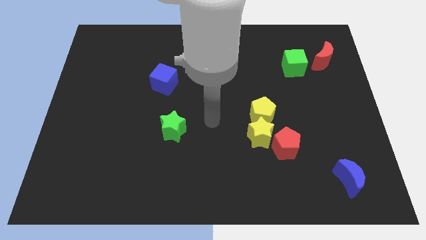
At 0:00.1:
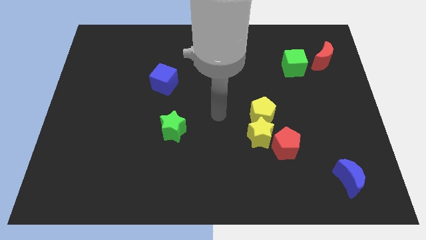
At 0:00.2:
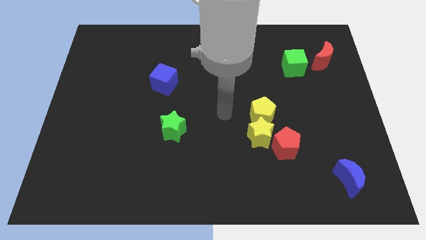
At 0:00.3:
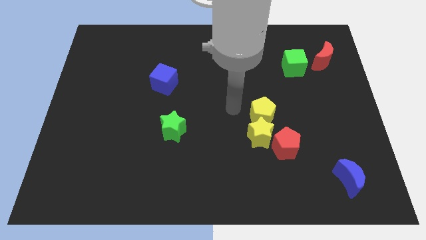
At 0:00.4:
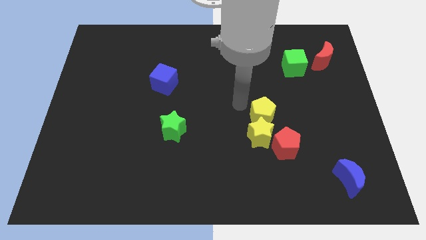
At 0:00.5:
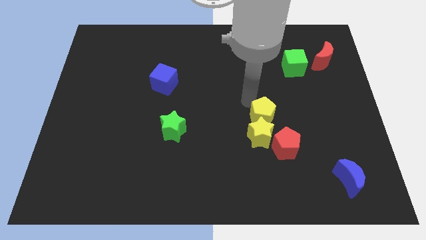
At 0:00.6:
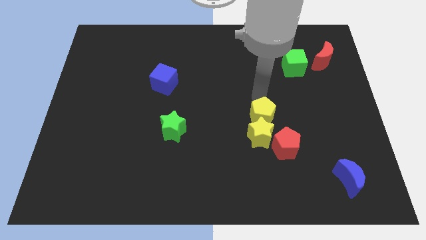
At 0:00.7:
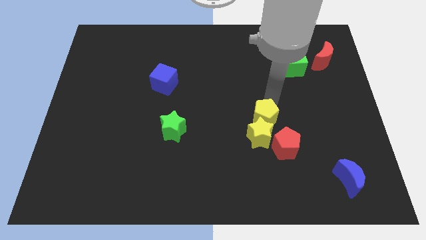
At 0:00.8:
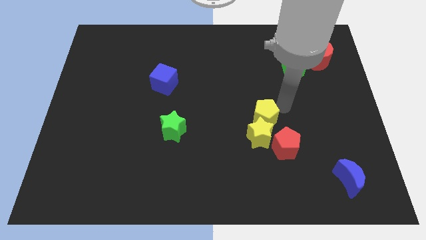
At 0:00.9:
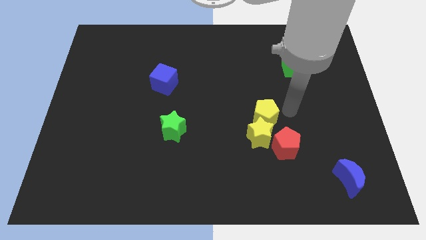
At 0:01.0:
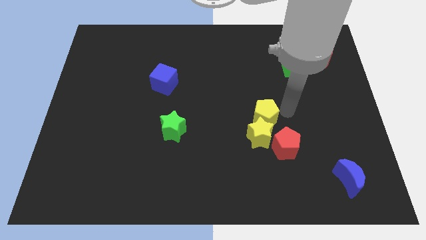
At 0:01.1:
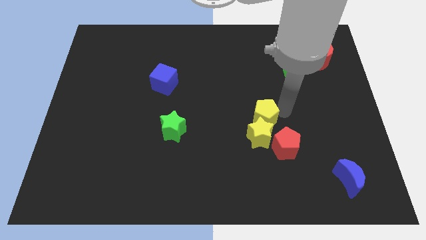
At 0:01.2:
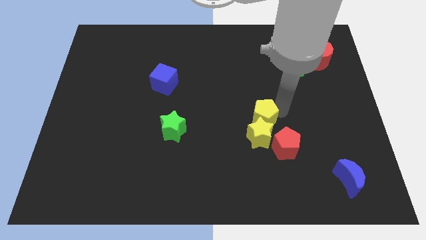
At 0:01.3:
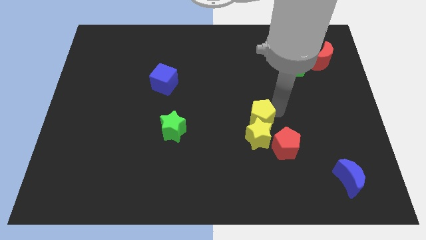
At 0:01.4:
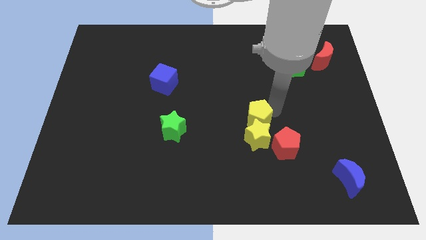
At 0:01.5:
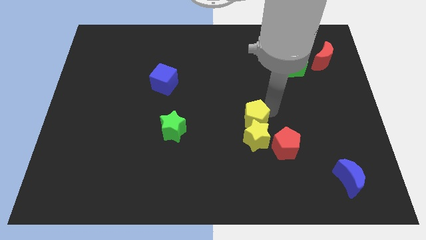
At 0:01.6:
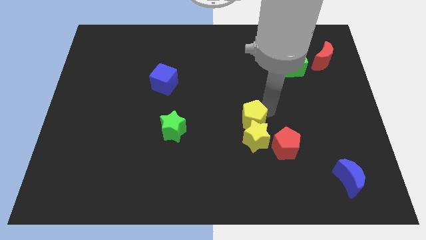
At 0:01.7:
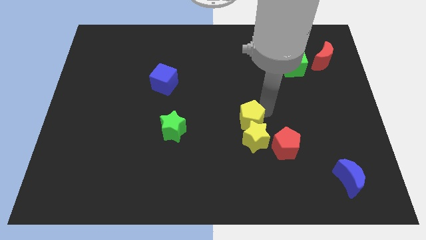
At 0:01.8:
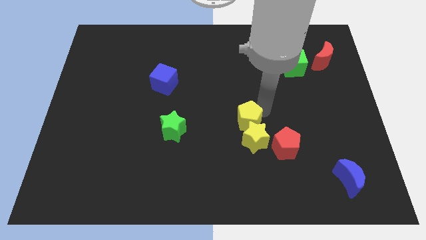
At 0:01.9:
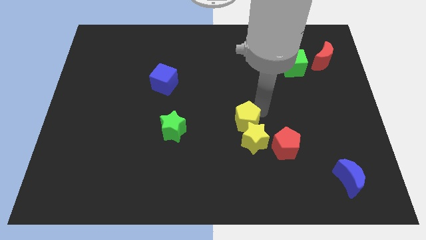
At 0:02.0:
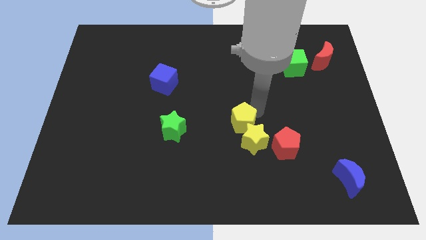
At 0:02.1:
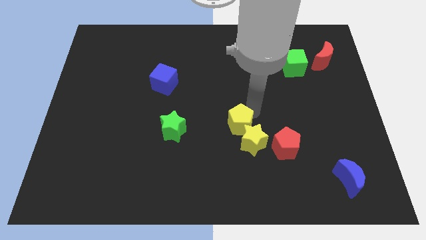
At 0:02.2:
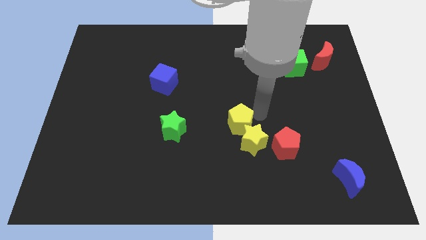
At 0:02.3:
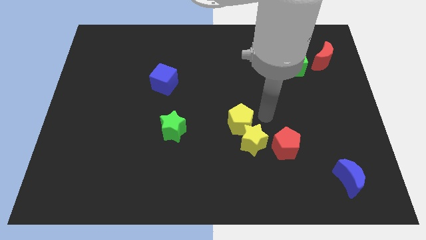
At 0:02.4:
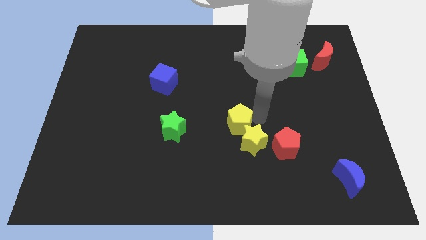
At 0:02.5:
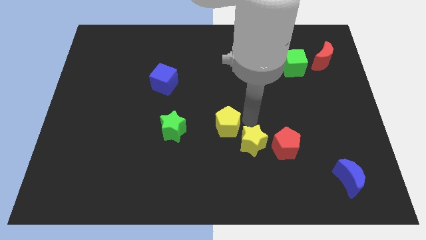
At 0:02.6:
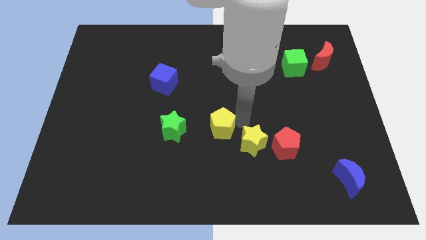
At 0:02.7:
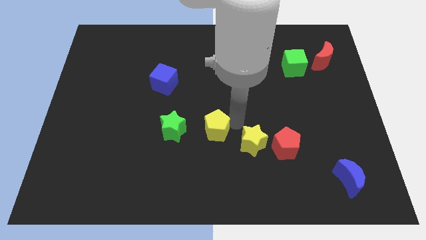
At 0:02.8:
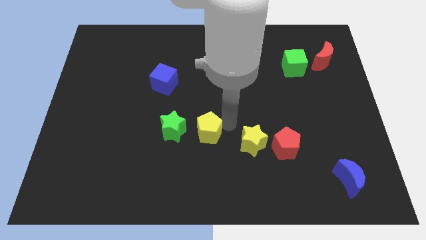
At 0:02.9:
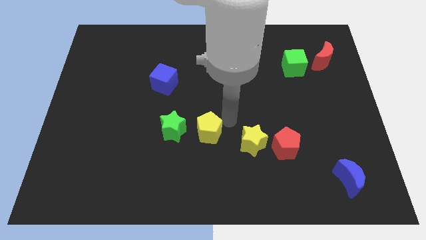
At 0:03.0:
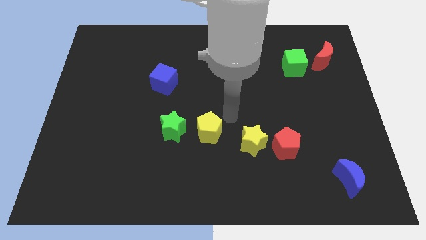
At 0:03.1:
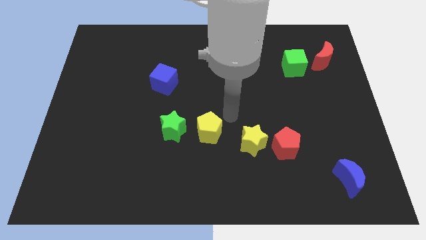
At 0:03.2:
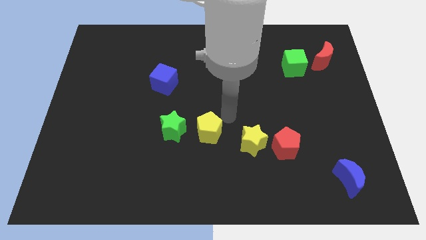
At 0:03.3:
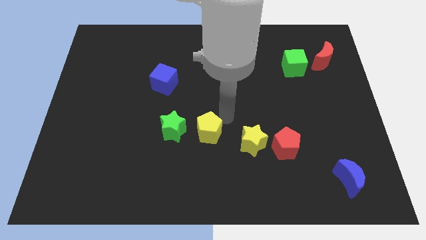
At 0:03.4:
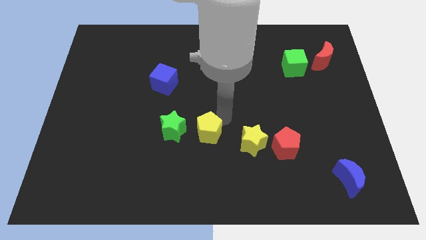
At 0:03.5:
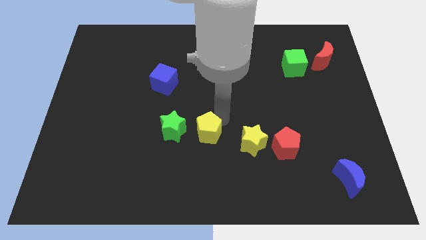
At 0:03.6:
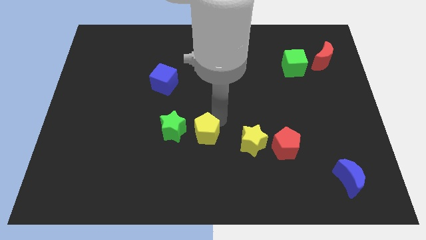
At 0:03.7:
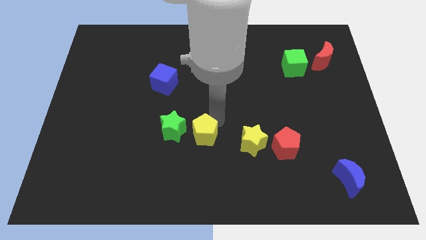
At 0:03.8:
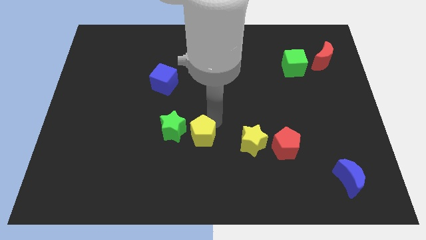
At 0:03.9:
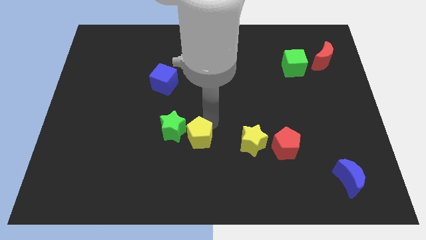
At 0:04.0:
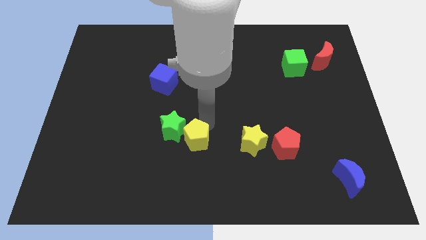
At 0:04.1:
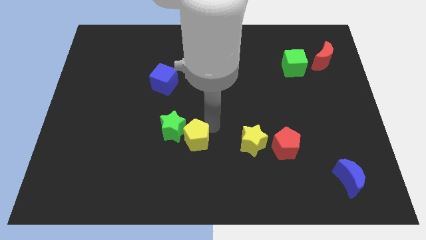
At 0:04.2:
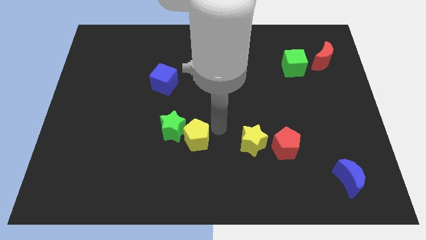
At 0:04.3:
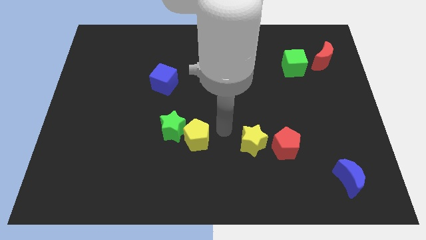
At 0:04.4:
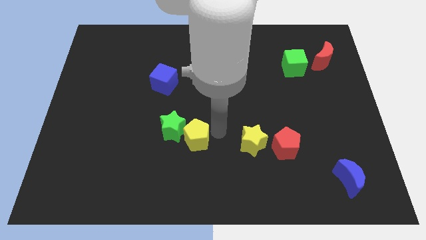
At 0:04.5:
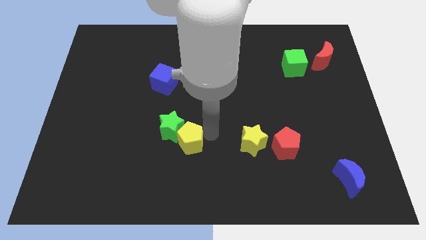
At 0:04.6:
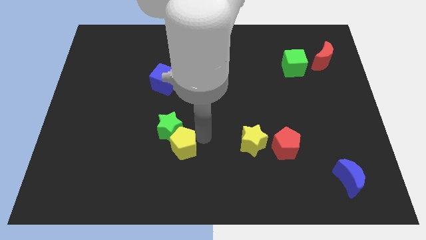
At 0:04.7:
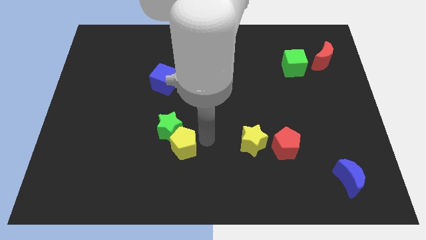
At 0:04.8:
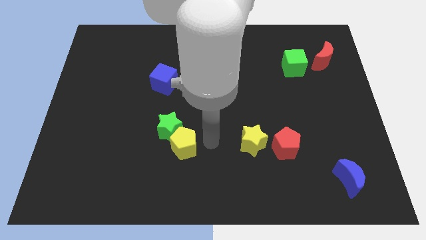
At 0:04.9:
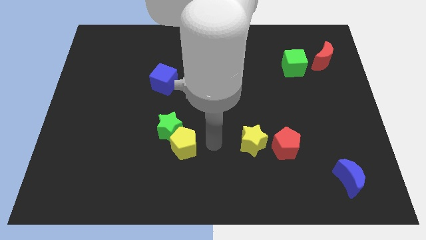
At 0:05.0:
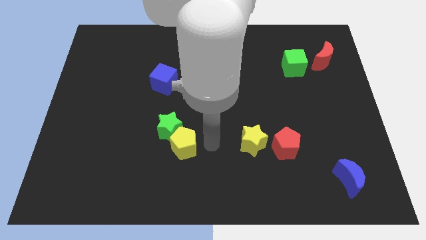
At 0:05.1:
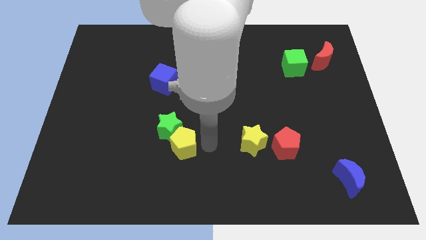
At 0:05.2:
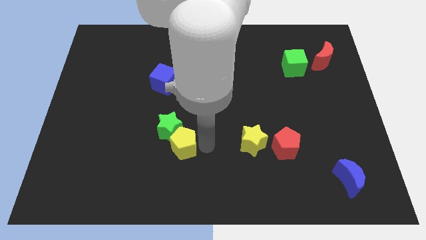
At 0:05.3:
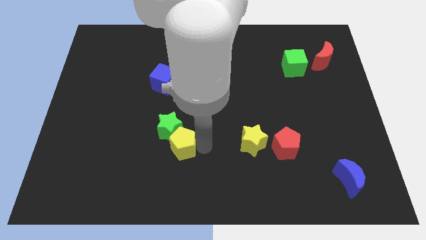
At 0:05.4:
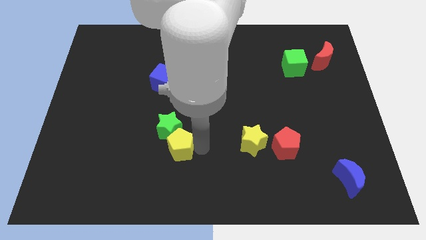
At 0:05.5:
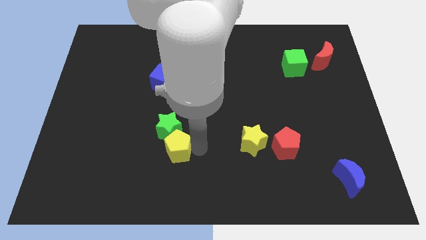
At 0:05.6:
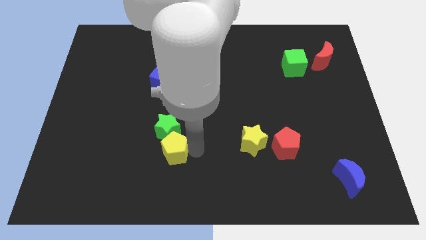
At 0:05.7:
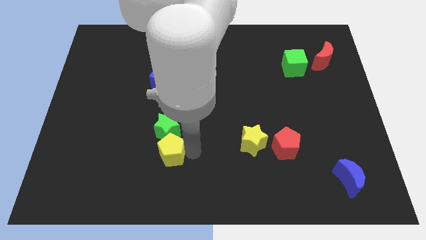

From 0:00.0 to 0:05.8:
put the yellow pentagon to the bottom left of the green star
